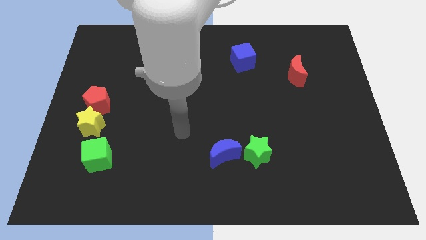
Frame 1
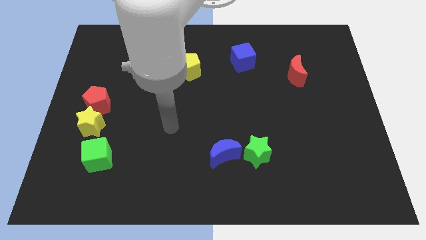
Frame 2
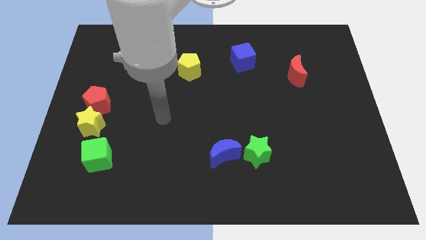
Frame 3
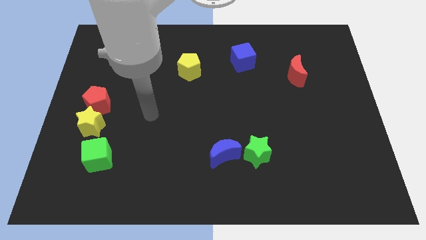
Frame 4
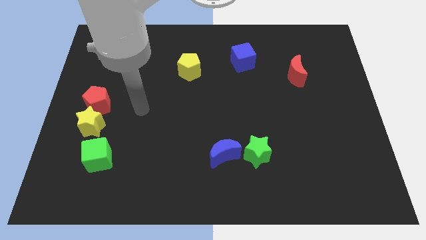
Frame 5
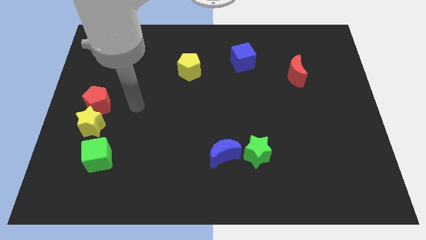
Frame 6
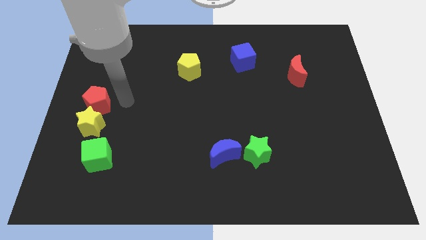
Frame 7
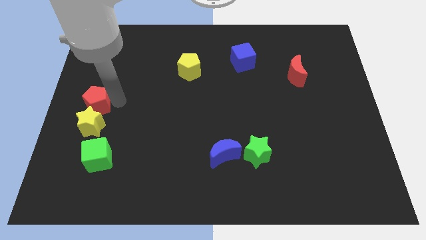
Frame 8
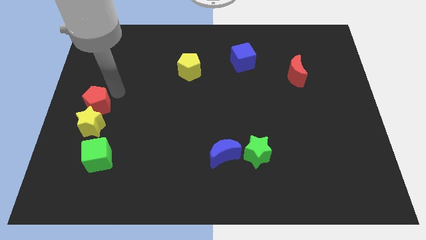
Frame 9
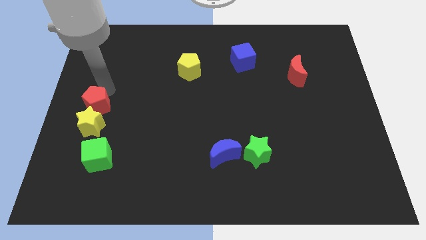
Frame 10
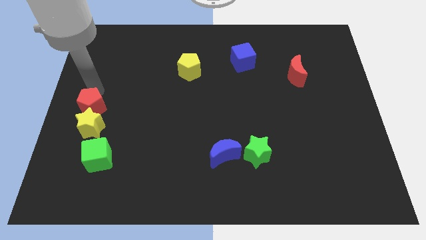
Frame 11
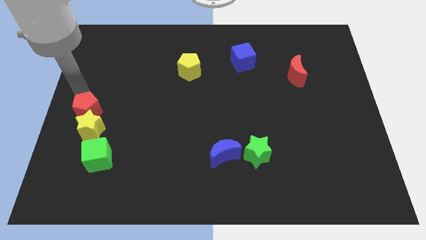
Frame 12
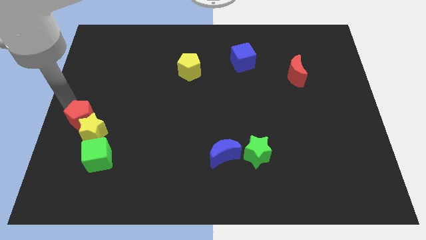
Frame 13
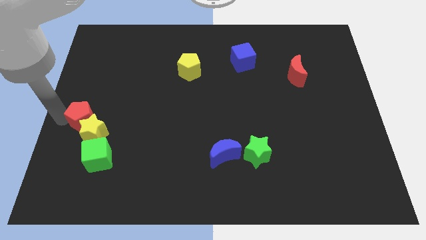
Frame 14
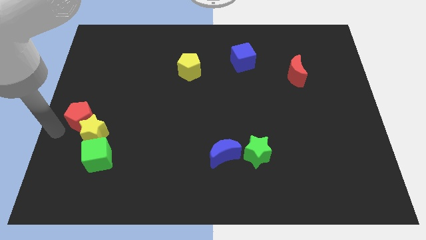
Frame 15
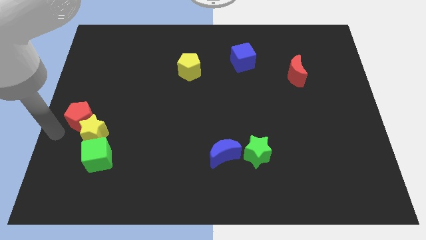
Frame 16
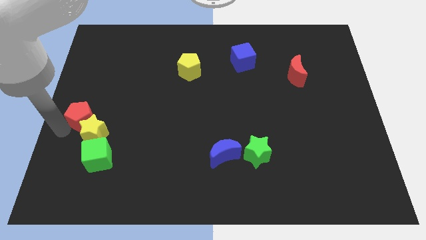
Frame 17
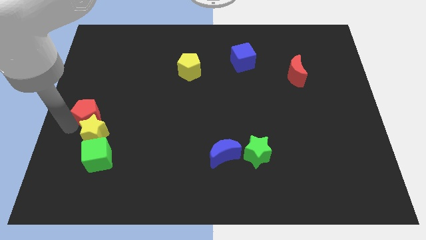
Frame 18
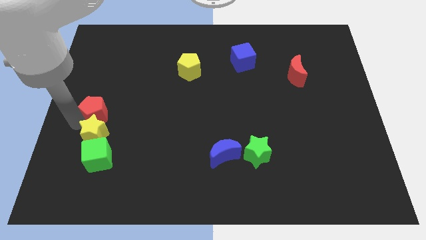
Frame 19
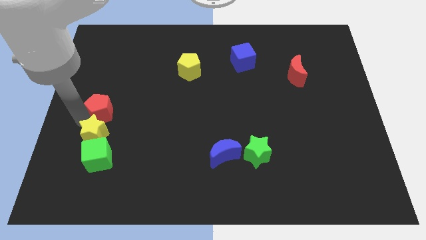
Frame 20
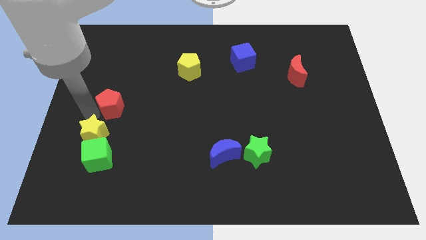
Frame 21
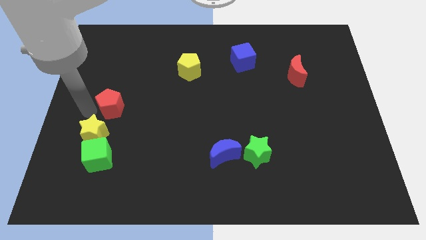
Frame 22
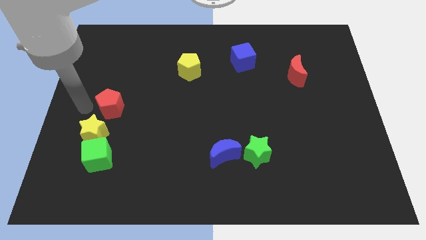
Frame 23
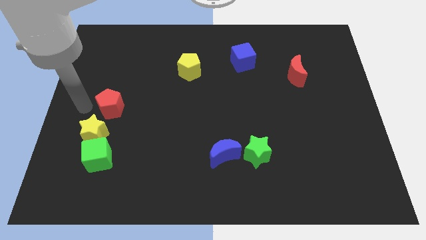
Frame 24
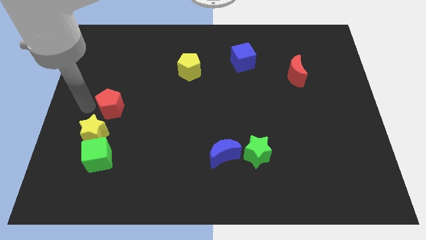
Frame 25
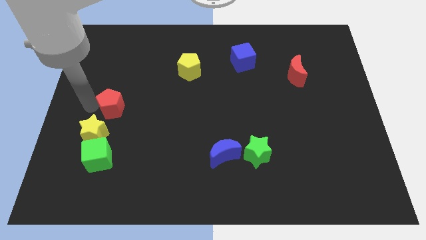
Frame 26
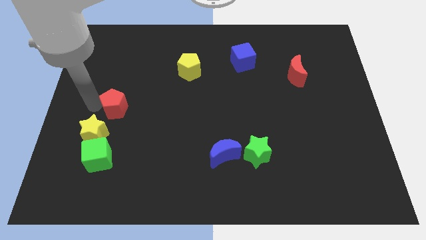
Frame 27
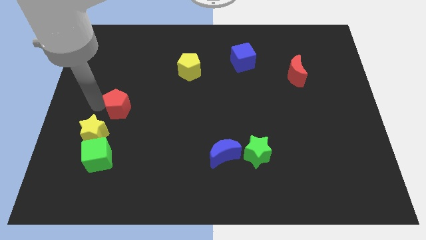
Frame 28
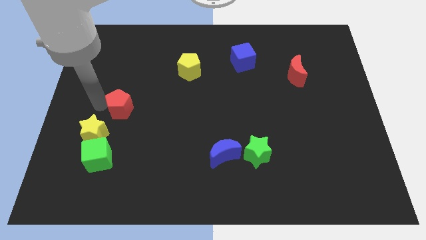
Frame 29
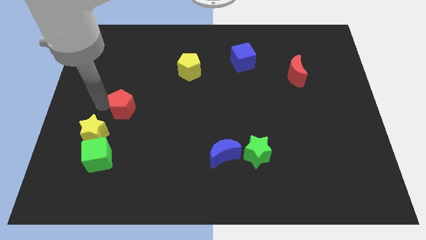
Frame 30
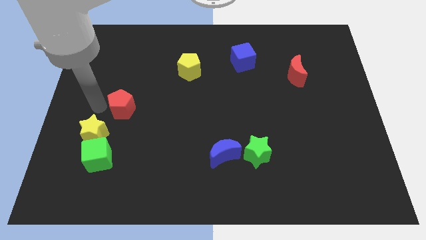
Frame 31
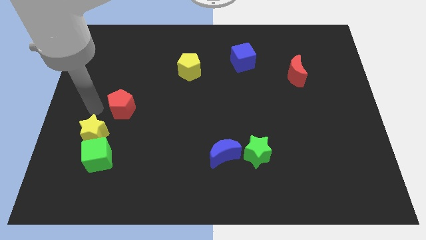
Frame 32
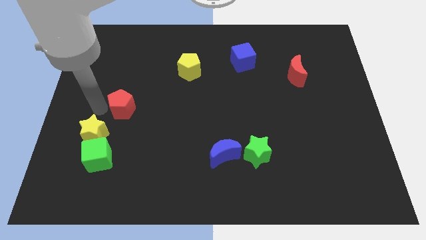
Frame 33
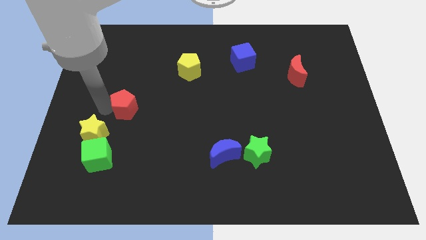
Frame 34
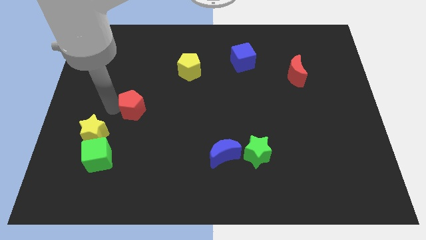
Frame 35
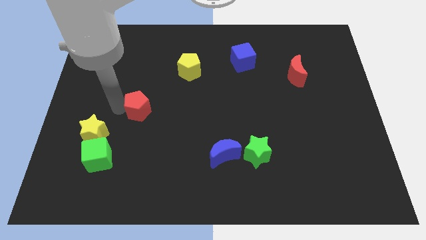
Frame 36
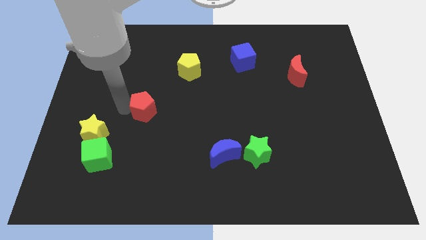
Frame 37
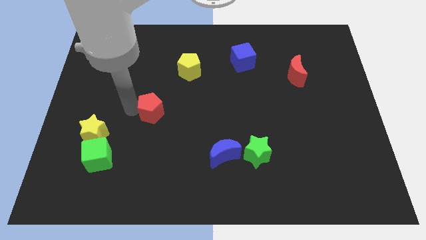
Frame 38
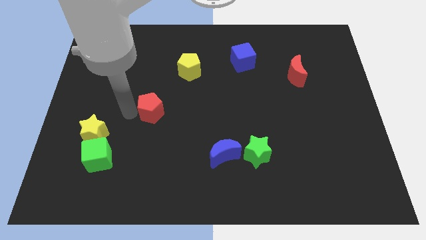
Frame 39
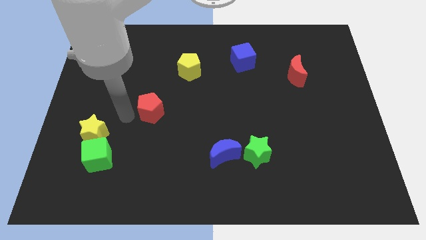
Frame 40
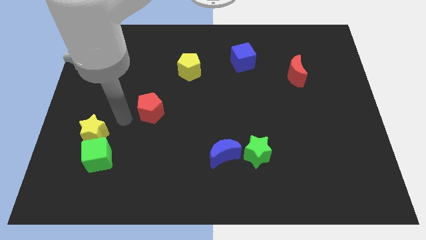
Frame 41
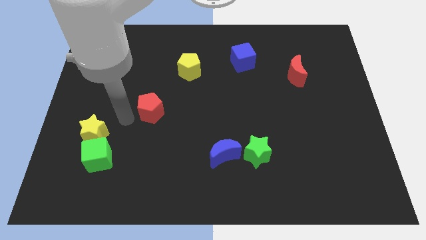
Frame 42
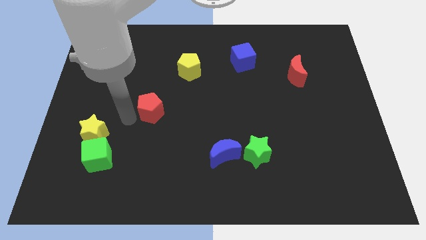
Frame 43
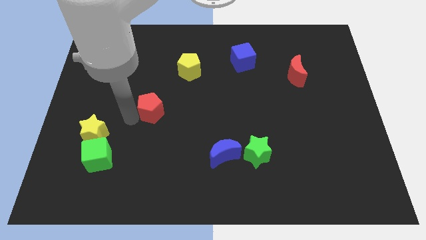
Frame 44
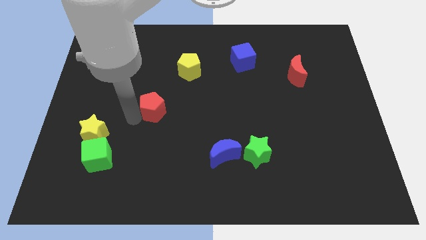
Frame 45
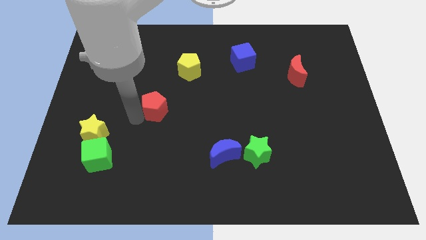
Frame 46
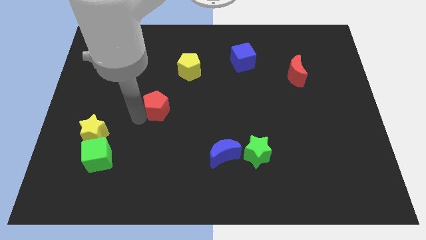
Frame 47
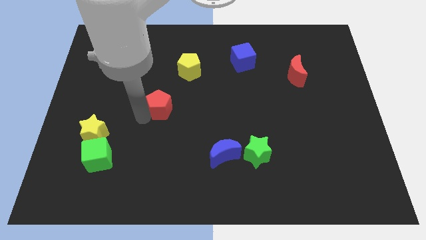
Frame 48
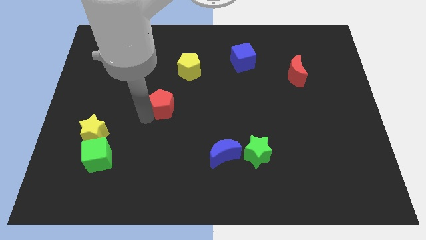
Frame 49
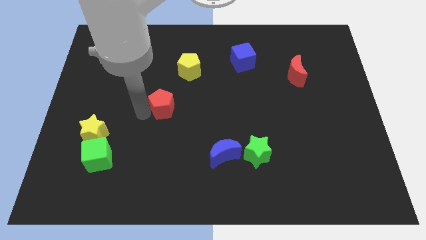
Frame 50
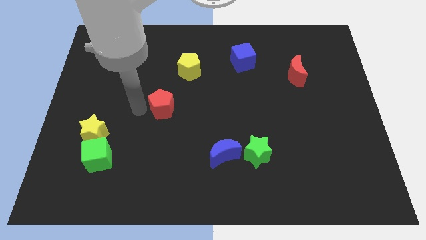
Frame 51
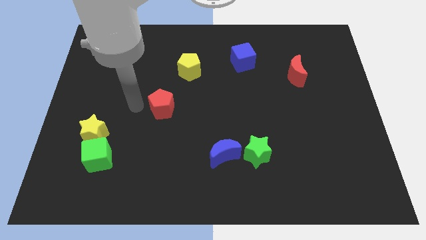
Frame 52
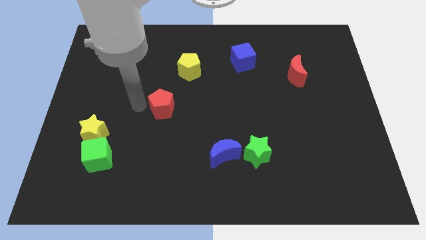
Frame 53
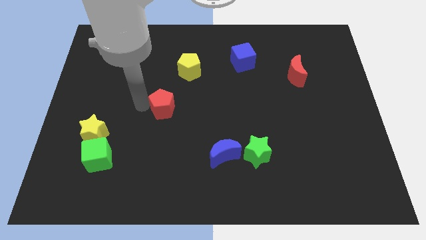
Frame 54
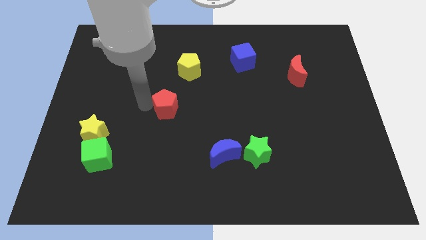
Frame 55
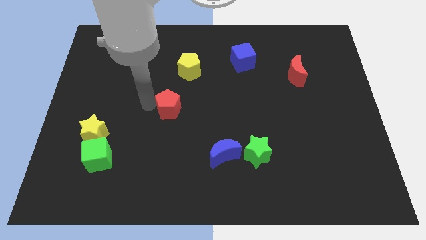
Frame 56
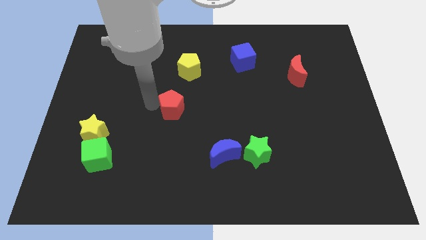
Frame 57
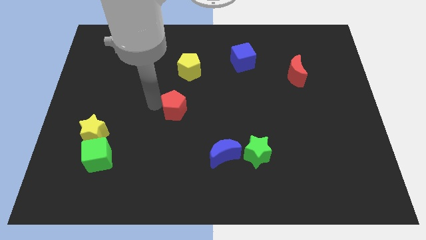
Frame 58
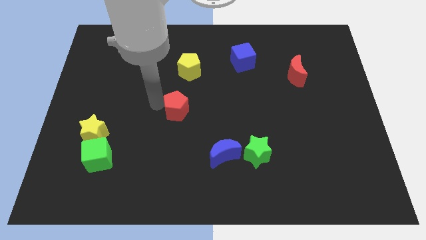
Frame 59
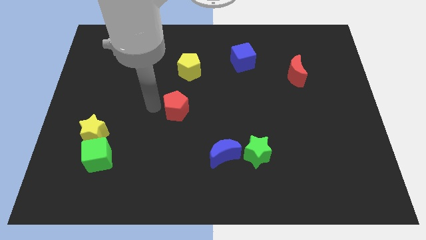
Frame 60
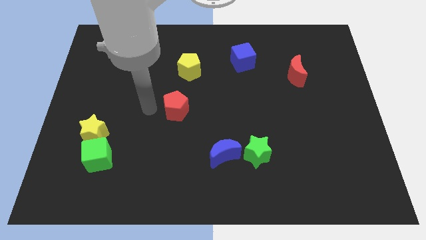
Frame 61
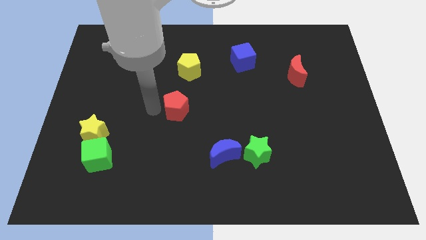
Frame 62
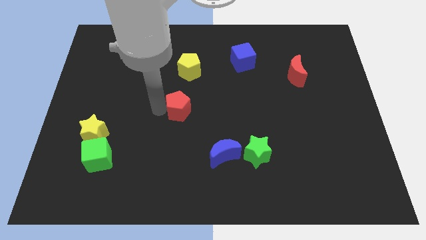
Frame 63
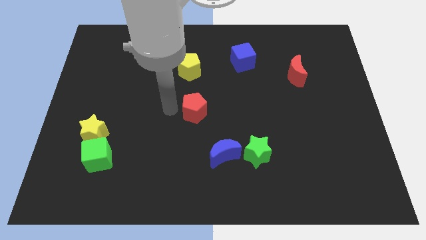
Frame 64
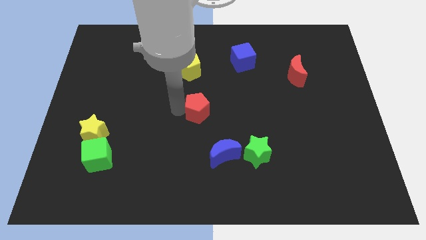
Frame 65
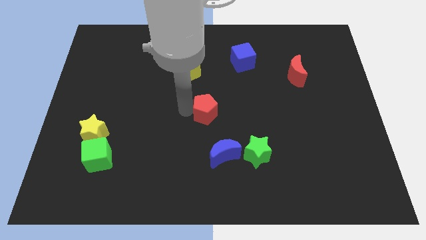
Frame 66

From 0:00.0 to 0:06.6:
move the red pentagon above the blue moon
